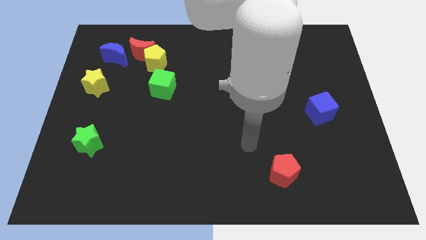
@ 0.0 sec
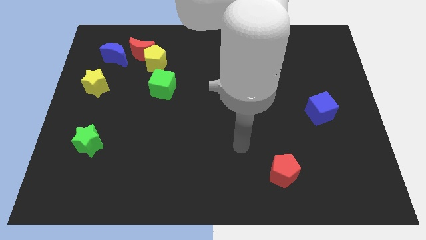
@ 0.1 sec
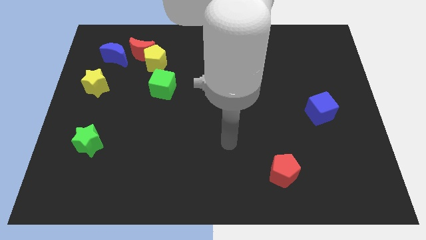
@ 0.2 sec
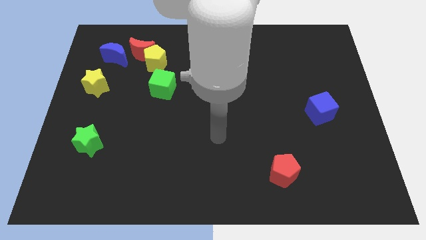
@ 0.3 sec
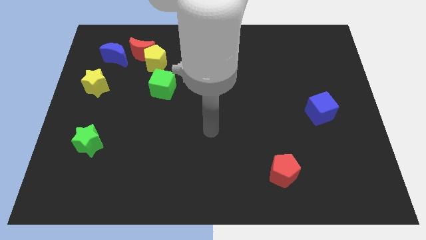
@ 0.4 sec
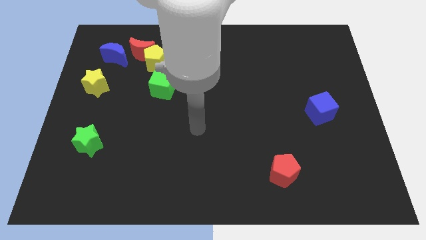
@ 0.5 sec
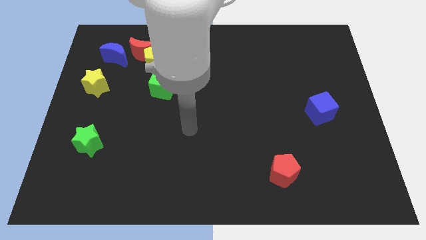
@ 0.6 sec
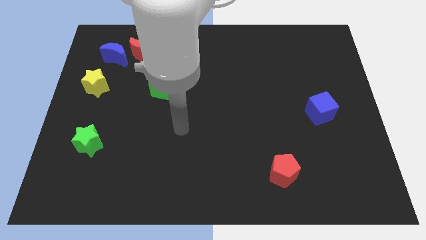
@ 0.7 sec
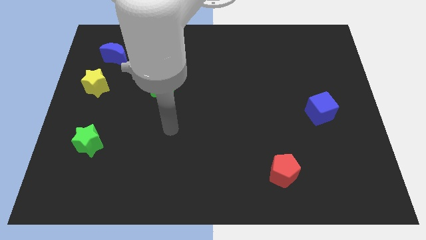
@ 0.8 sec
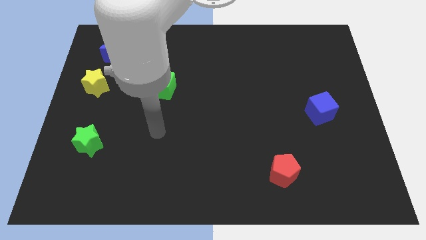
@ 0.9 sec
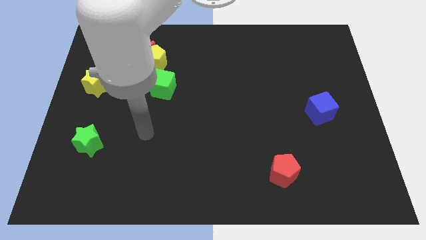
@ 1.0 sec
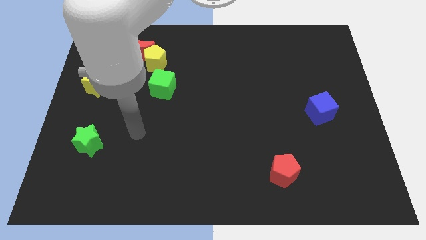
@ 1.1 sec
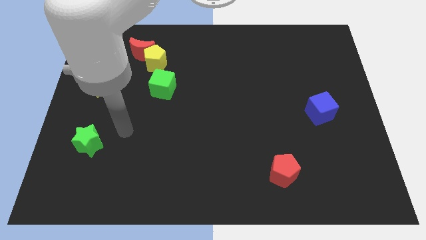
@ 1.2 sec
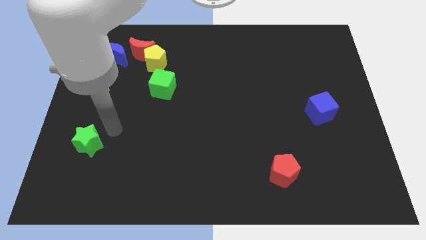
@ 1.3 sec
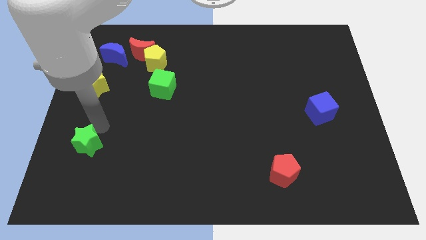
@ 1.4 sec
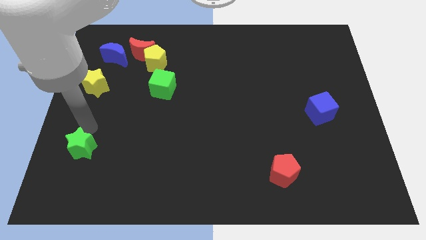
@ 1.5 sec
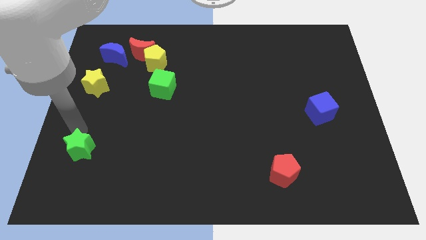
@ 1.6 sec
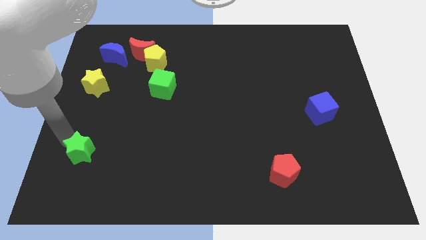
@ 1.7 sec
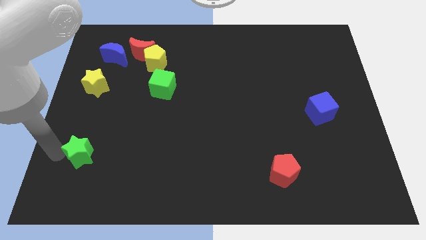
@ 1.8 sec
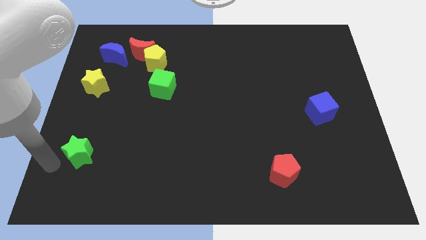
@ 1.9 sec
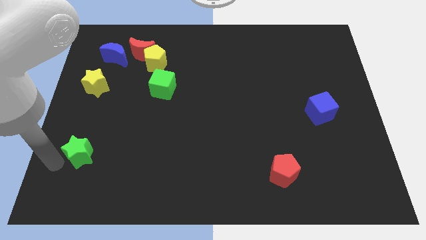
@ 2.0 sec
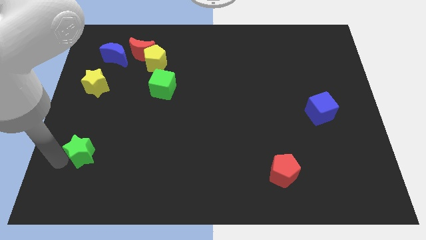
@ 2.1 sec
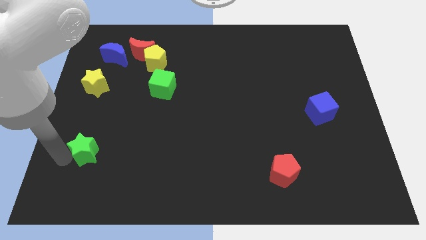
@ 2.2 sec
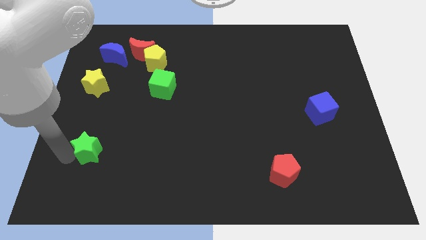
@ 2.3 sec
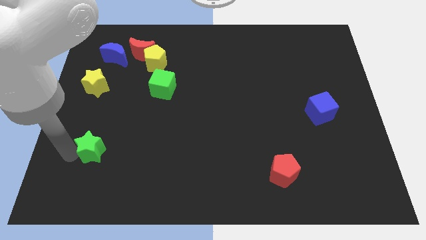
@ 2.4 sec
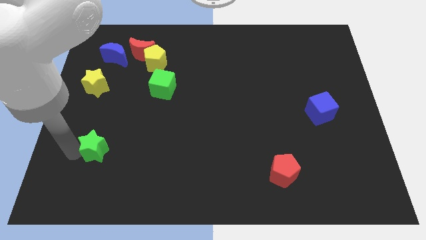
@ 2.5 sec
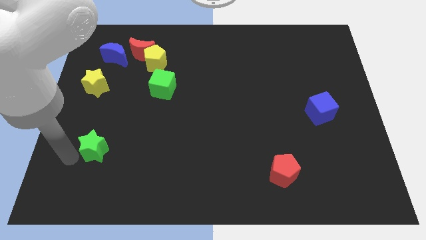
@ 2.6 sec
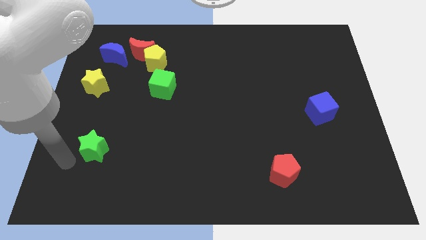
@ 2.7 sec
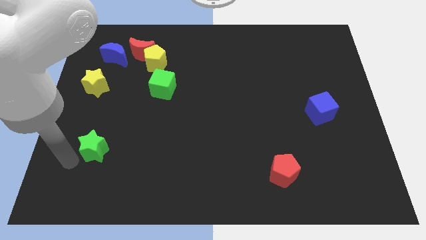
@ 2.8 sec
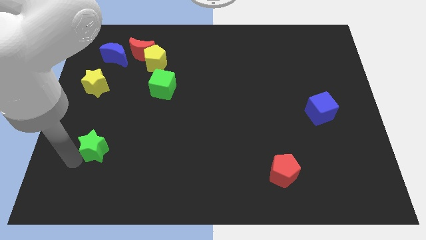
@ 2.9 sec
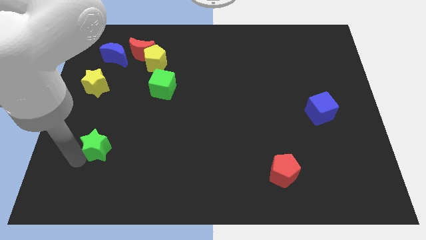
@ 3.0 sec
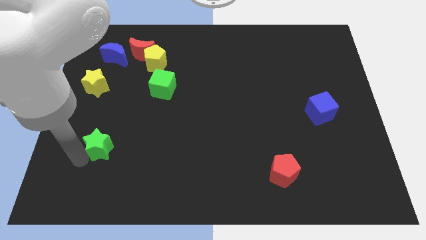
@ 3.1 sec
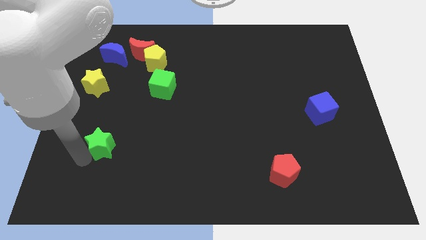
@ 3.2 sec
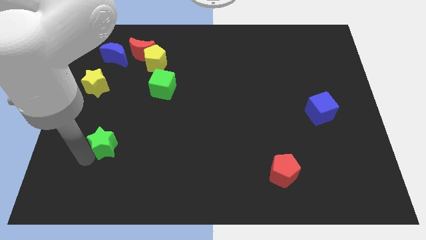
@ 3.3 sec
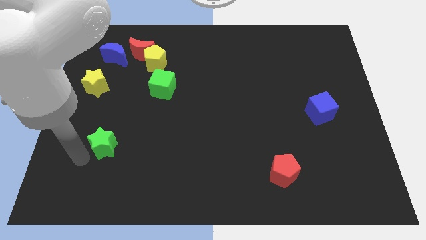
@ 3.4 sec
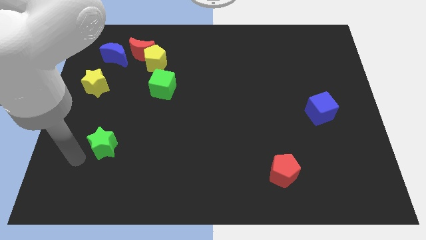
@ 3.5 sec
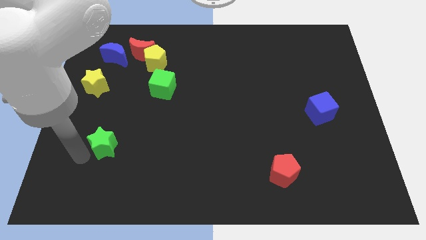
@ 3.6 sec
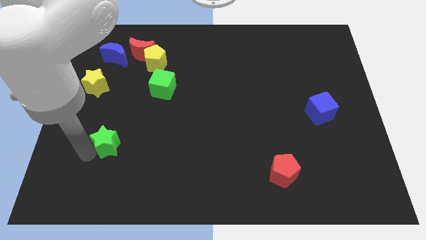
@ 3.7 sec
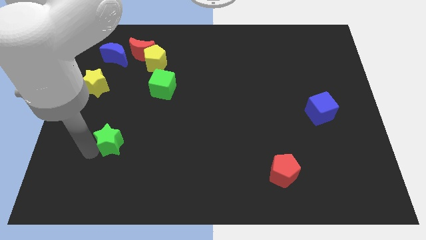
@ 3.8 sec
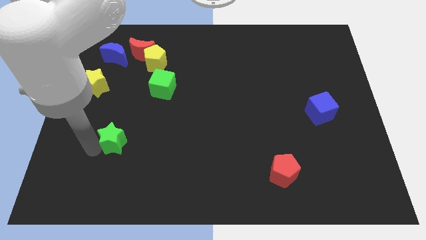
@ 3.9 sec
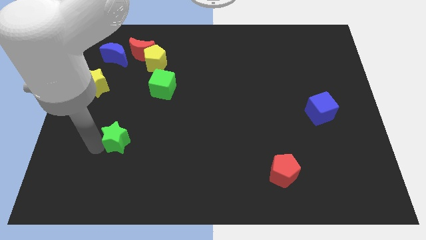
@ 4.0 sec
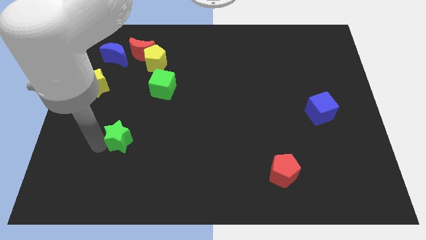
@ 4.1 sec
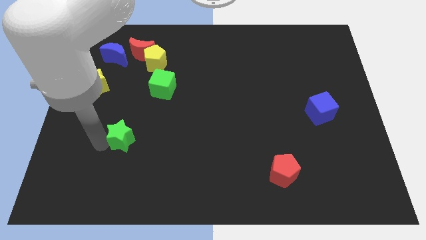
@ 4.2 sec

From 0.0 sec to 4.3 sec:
move the green star a bit right

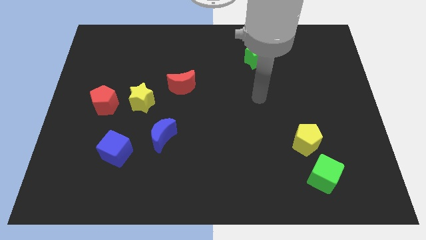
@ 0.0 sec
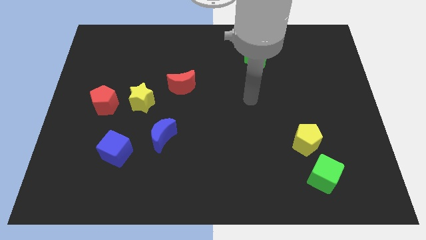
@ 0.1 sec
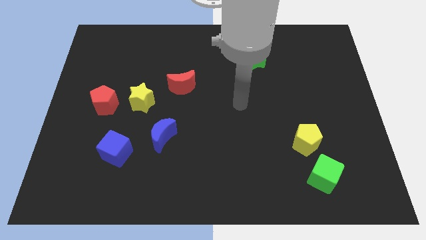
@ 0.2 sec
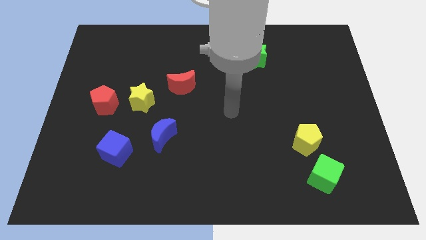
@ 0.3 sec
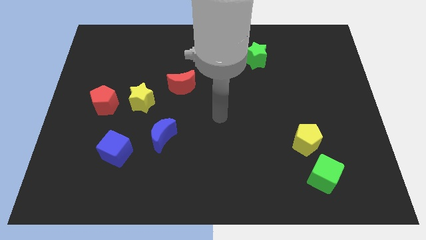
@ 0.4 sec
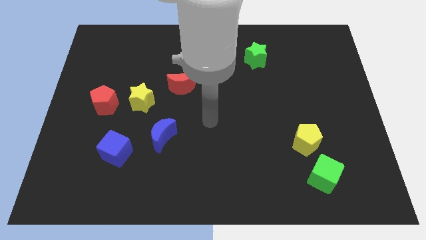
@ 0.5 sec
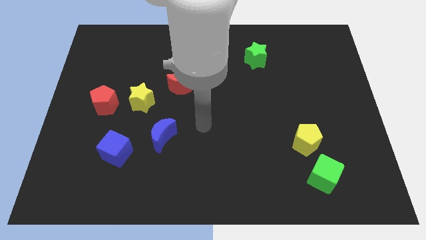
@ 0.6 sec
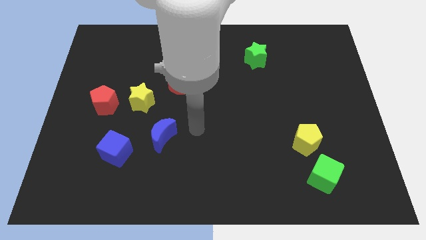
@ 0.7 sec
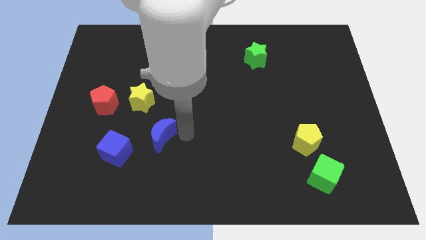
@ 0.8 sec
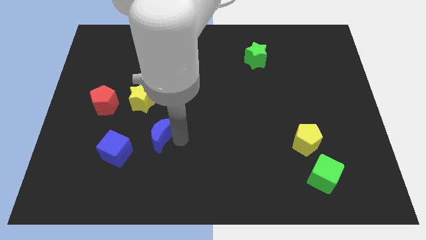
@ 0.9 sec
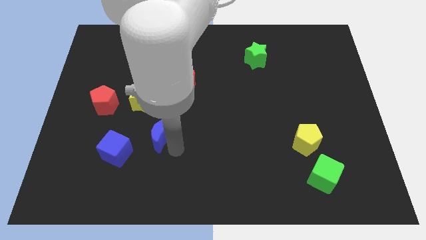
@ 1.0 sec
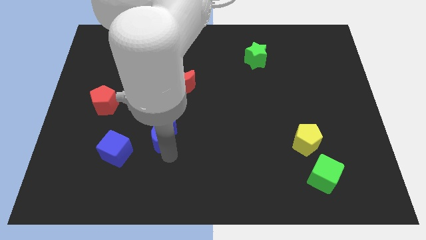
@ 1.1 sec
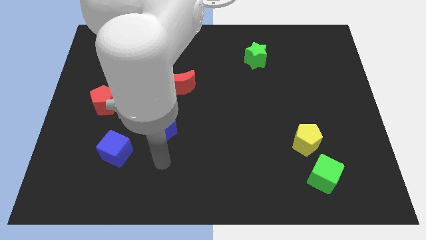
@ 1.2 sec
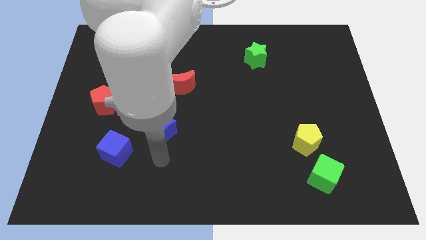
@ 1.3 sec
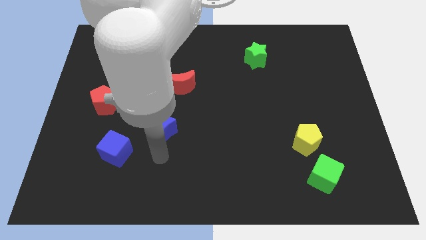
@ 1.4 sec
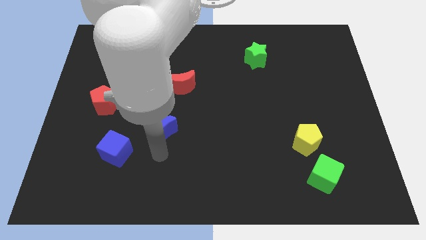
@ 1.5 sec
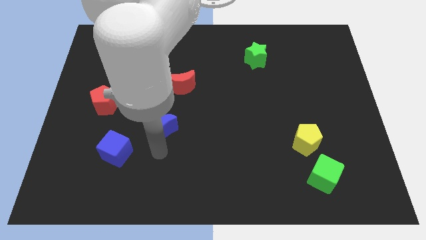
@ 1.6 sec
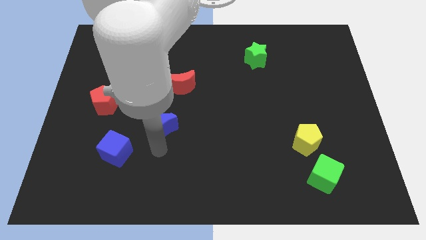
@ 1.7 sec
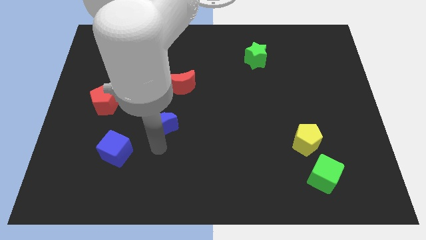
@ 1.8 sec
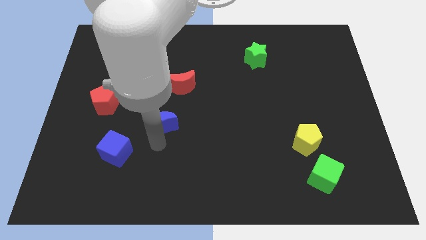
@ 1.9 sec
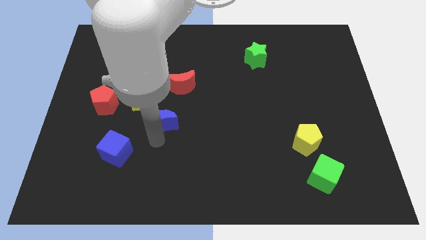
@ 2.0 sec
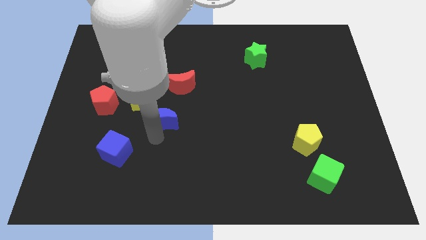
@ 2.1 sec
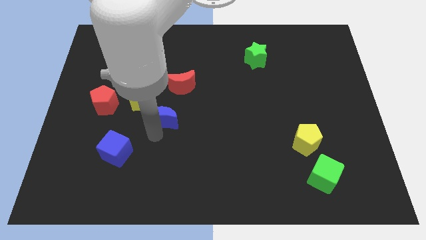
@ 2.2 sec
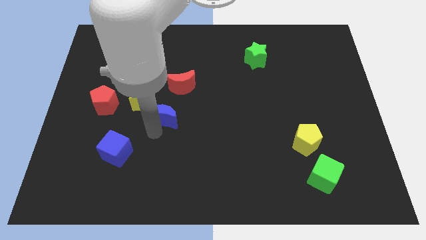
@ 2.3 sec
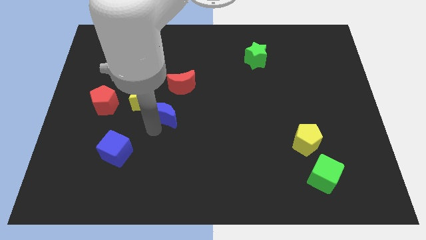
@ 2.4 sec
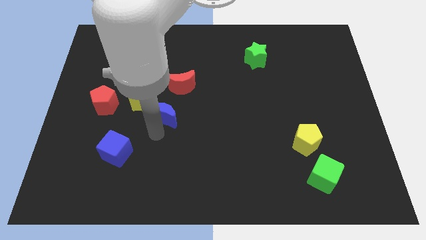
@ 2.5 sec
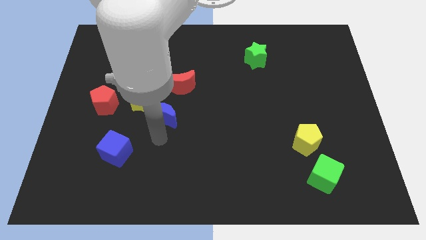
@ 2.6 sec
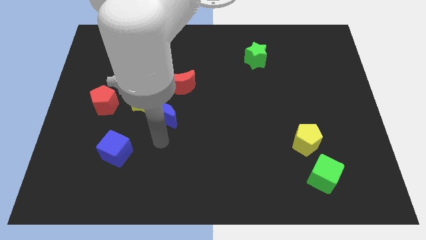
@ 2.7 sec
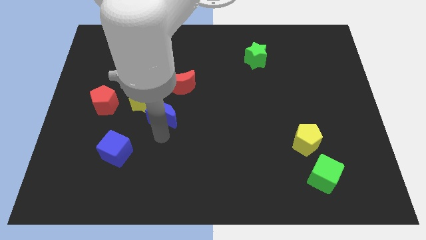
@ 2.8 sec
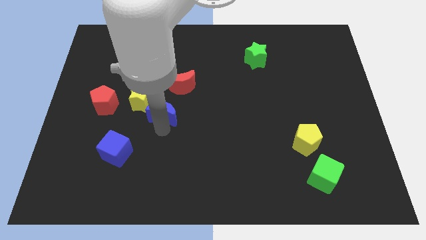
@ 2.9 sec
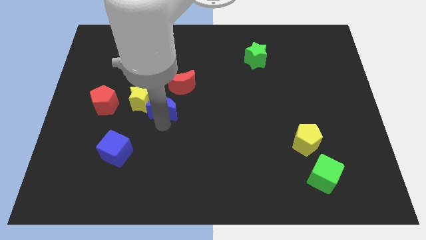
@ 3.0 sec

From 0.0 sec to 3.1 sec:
push the blue moon upwards slightly

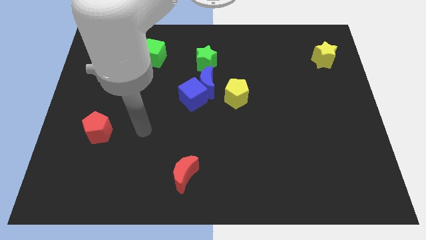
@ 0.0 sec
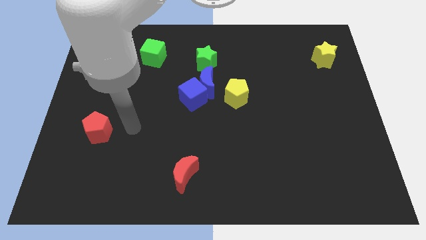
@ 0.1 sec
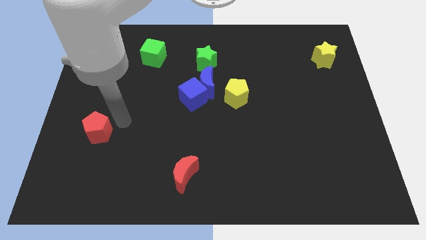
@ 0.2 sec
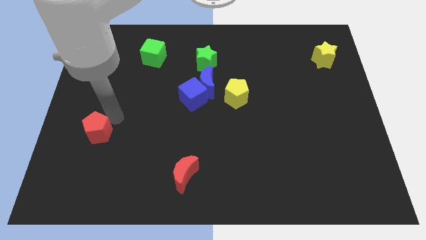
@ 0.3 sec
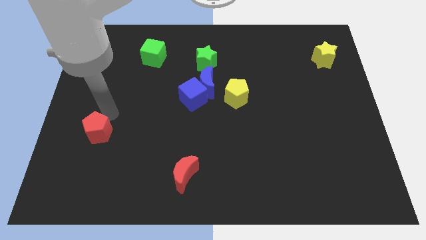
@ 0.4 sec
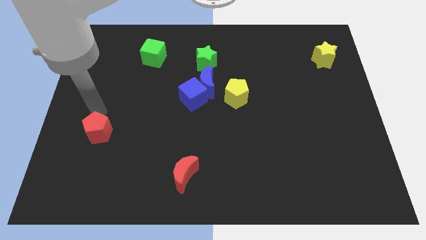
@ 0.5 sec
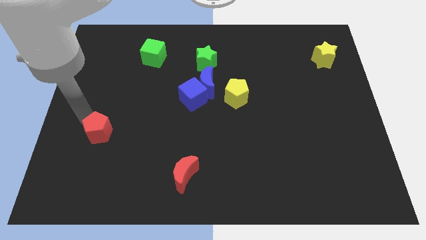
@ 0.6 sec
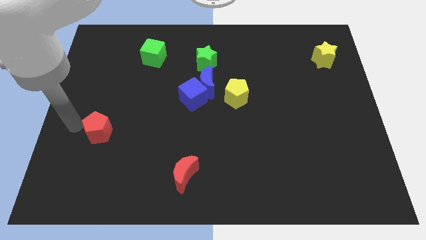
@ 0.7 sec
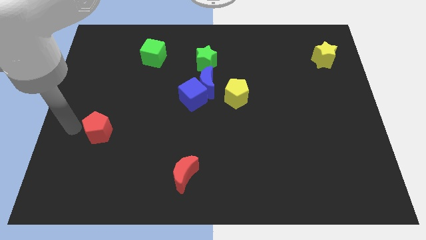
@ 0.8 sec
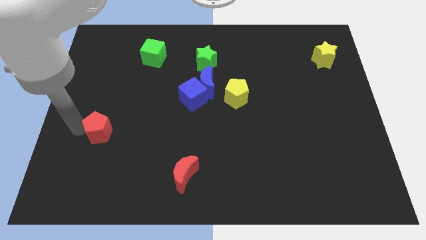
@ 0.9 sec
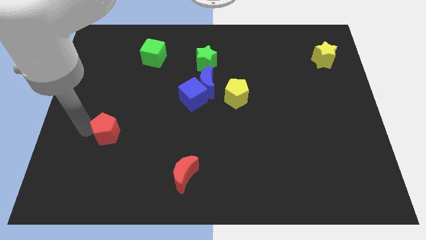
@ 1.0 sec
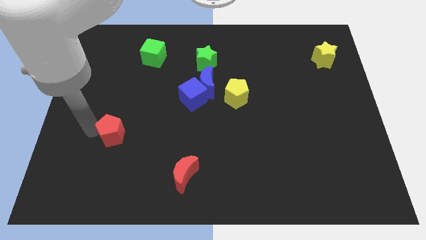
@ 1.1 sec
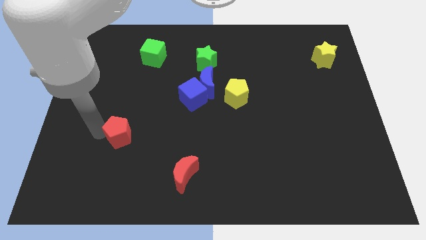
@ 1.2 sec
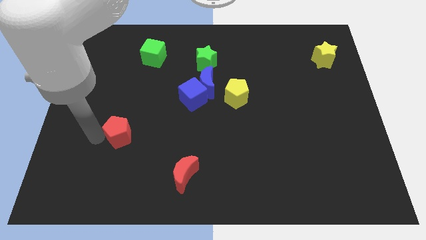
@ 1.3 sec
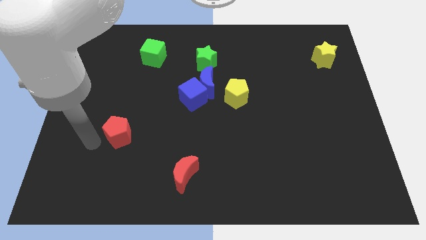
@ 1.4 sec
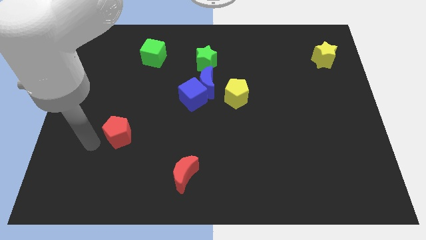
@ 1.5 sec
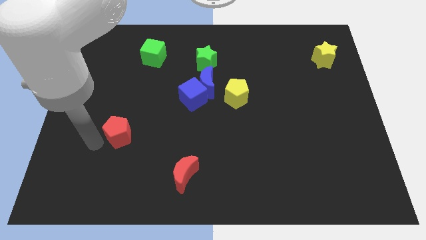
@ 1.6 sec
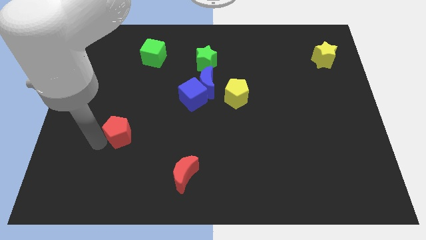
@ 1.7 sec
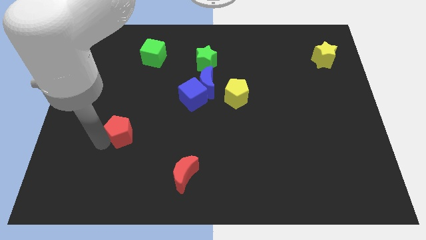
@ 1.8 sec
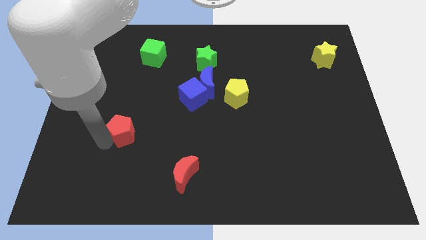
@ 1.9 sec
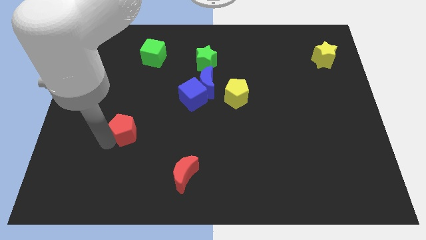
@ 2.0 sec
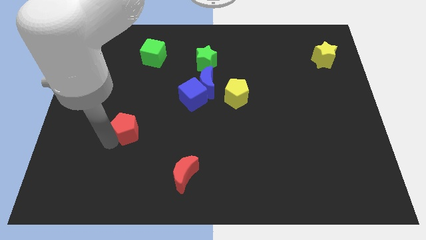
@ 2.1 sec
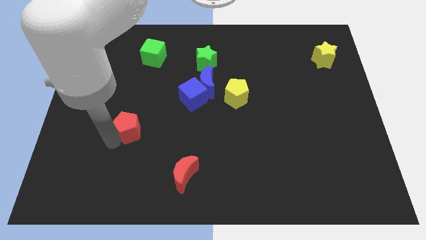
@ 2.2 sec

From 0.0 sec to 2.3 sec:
push the red pentagon right a little bit
